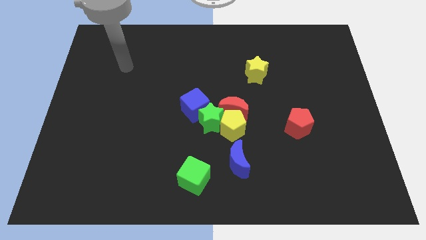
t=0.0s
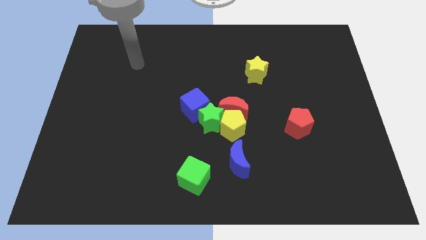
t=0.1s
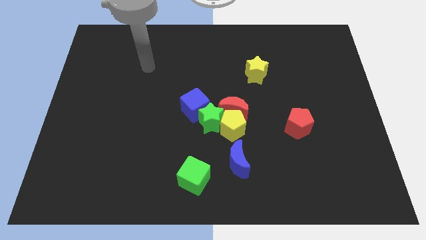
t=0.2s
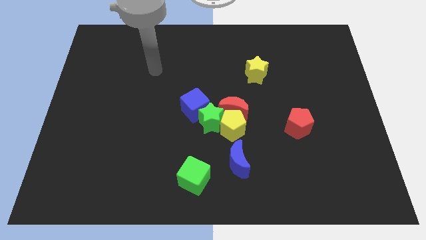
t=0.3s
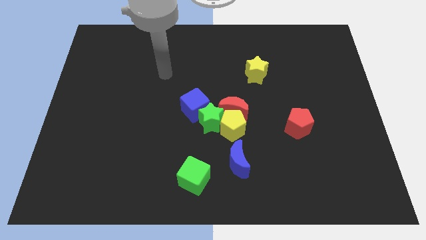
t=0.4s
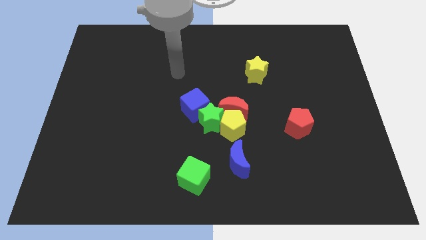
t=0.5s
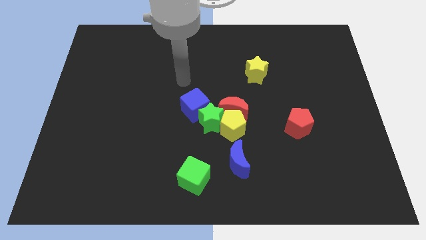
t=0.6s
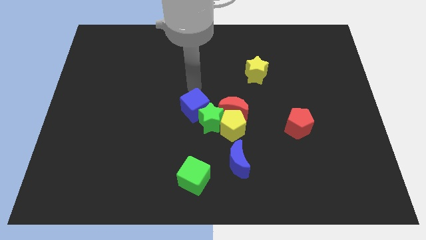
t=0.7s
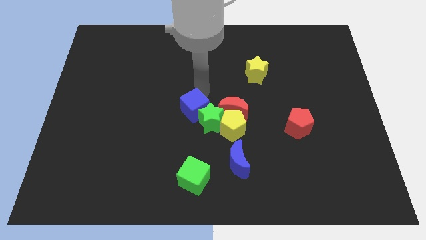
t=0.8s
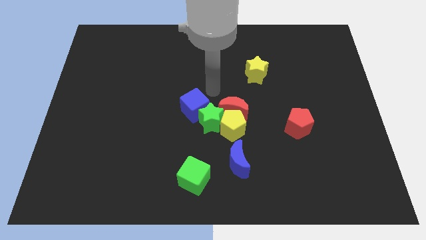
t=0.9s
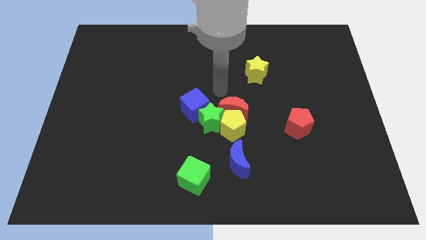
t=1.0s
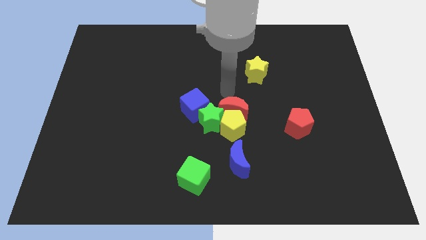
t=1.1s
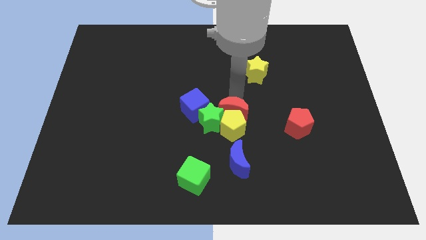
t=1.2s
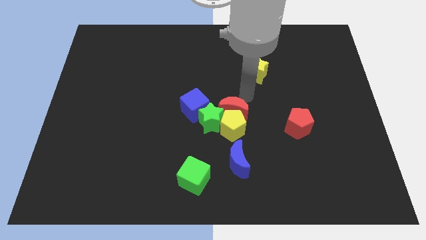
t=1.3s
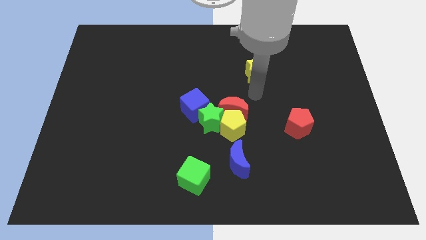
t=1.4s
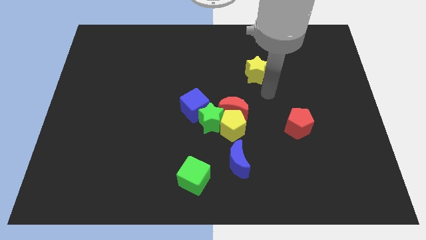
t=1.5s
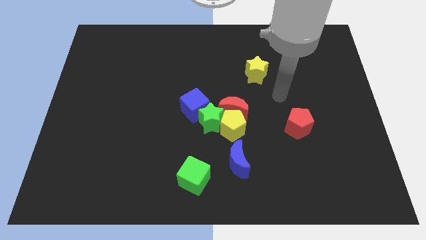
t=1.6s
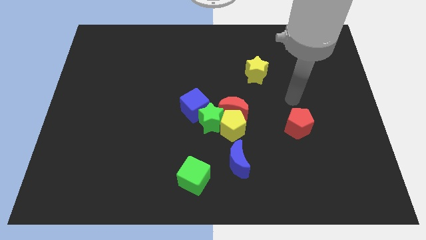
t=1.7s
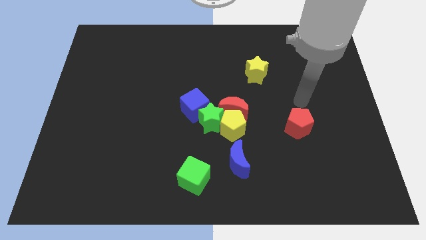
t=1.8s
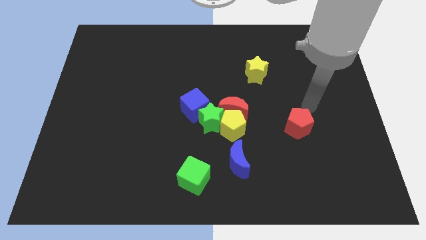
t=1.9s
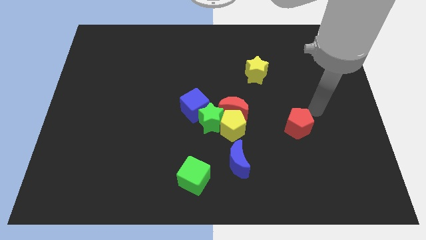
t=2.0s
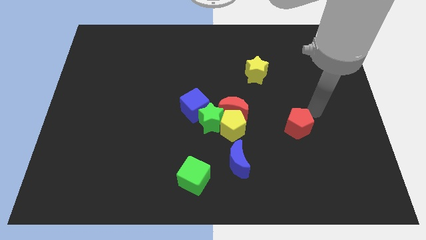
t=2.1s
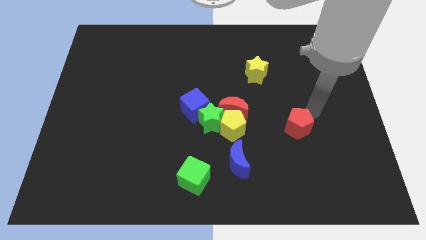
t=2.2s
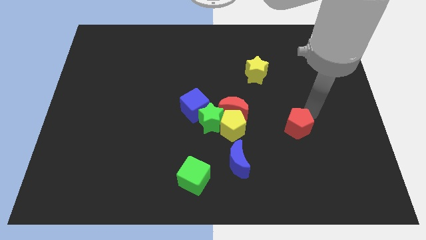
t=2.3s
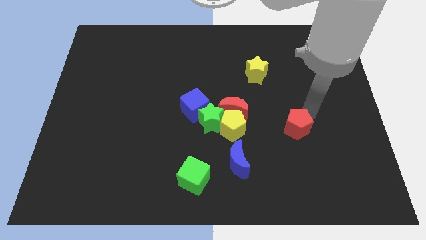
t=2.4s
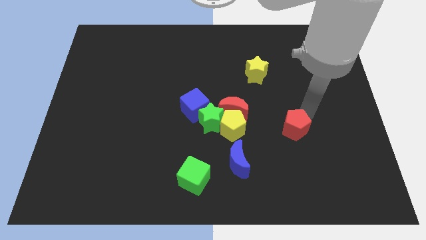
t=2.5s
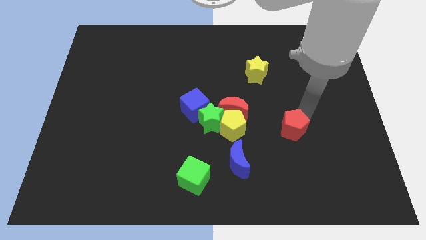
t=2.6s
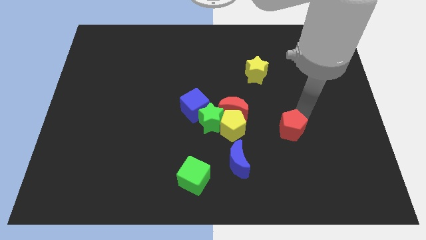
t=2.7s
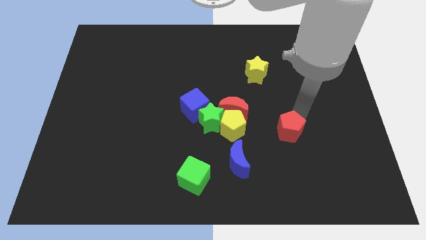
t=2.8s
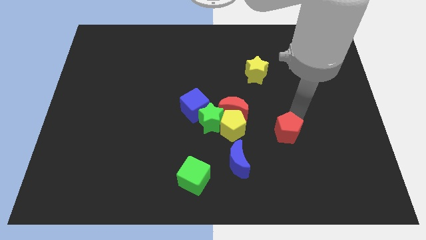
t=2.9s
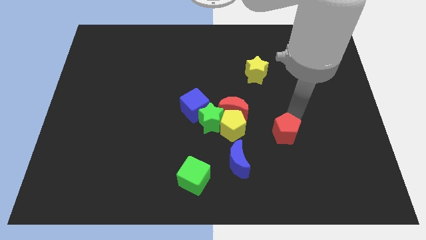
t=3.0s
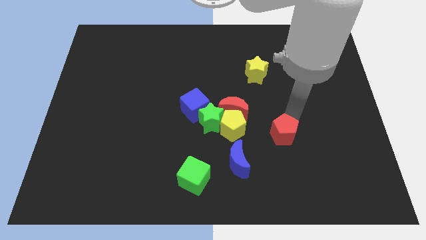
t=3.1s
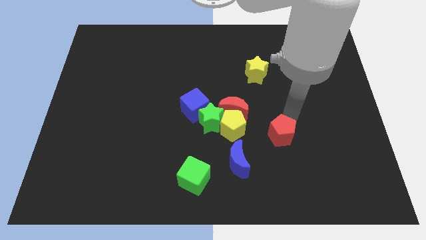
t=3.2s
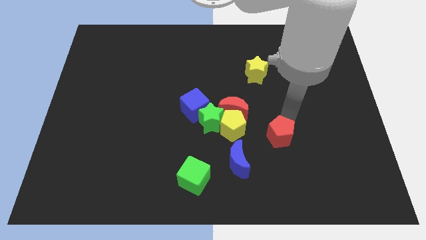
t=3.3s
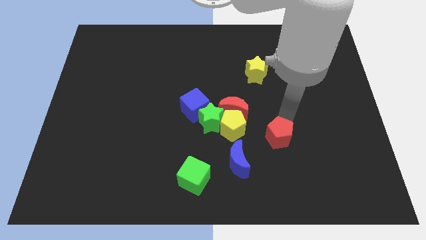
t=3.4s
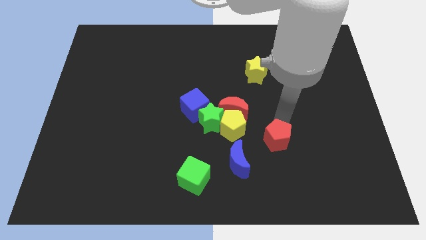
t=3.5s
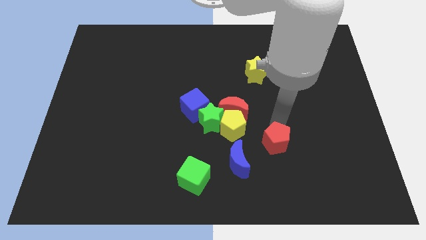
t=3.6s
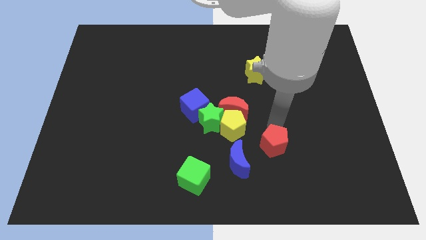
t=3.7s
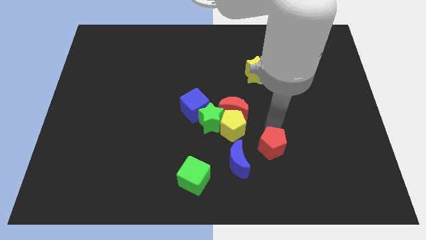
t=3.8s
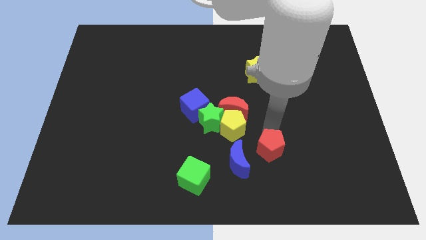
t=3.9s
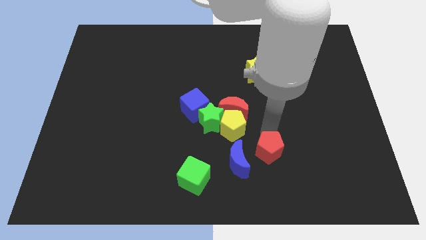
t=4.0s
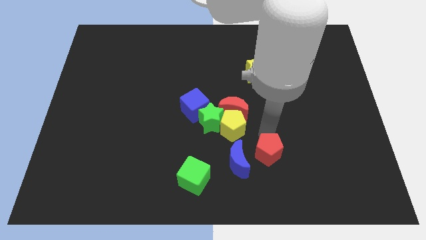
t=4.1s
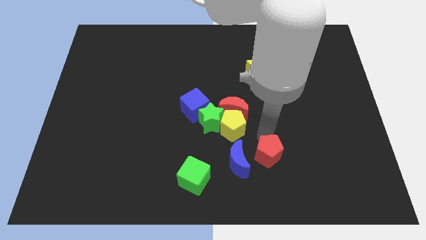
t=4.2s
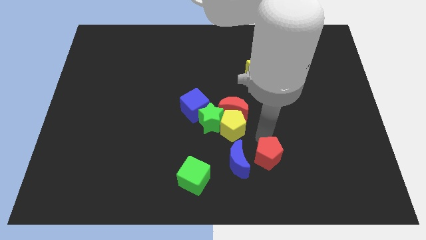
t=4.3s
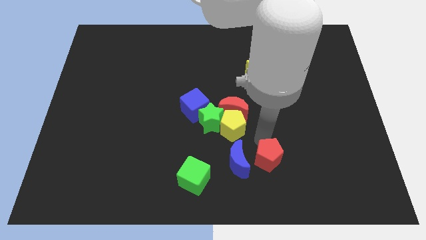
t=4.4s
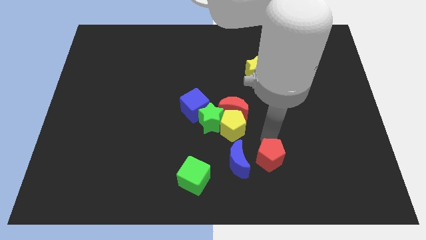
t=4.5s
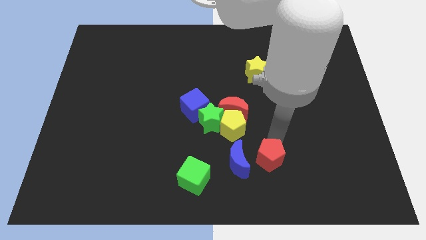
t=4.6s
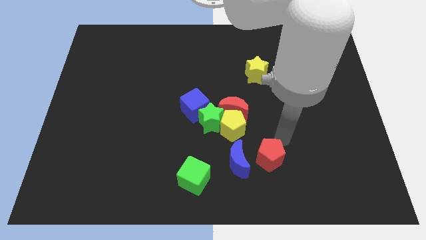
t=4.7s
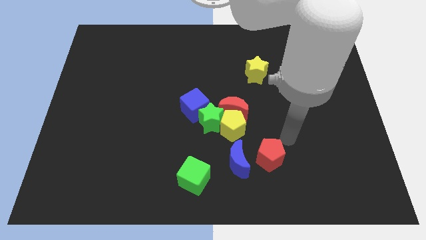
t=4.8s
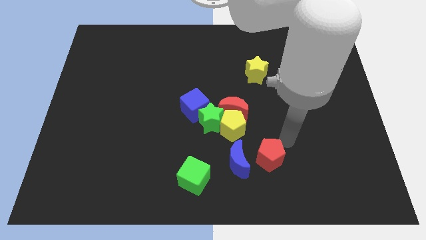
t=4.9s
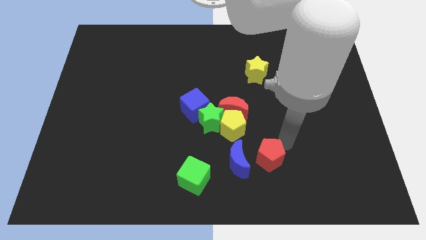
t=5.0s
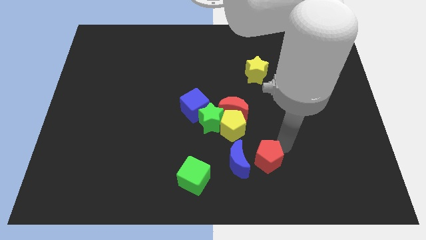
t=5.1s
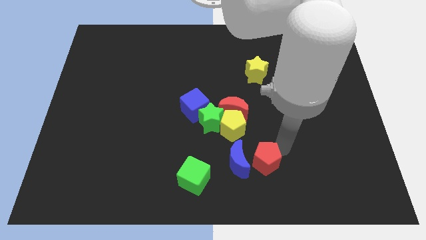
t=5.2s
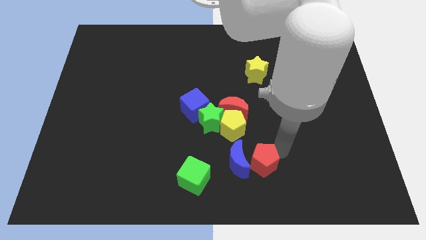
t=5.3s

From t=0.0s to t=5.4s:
move the red pentagon to the right side of the green cube

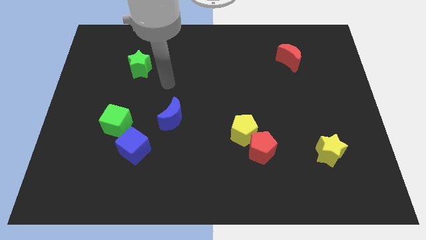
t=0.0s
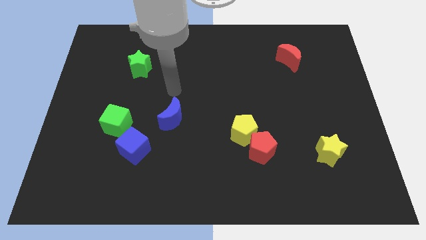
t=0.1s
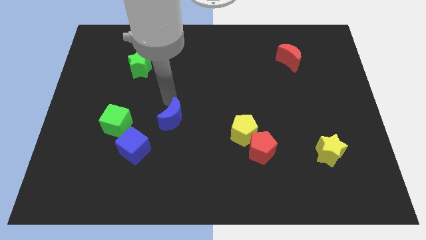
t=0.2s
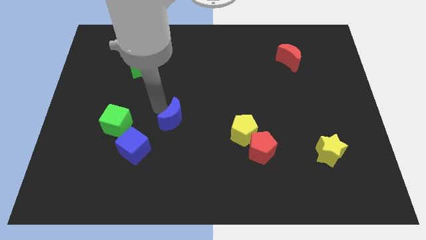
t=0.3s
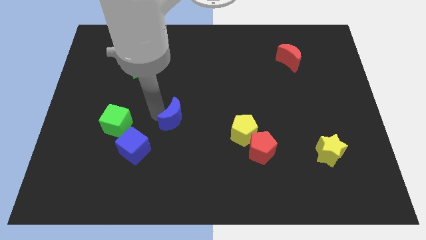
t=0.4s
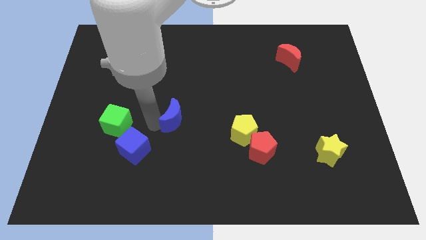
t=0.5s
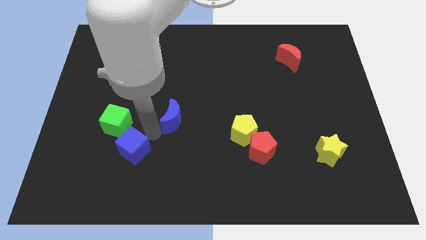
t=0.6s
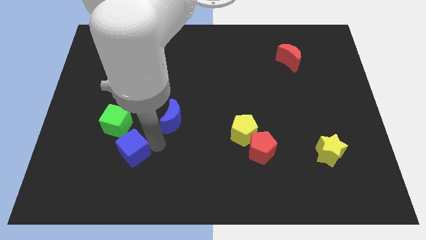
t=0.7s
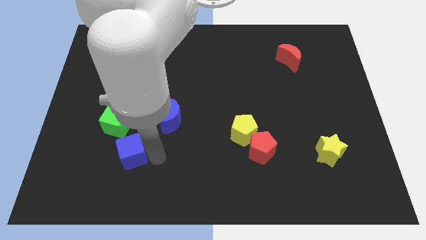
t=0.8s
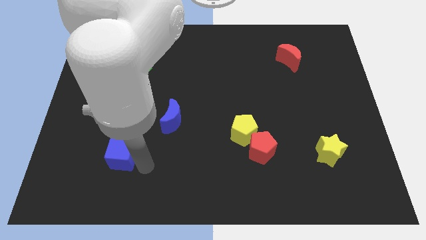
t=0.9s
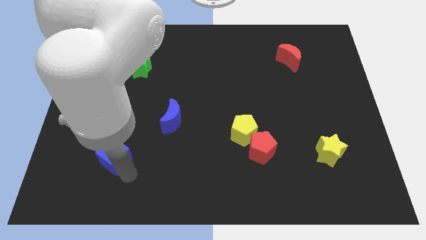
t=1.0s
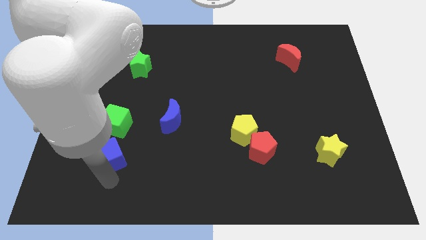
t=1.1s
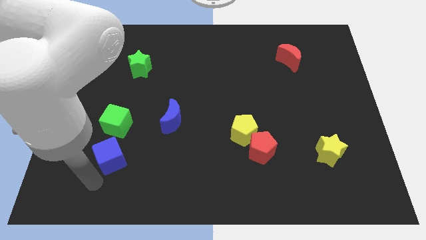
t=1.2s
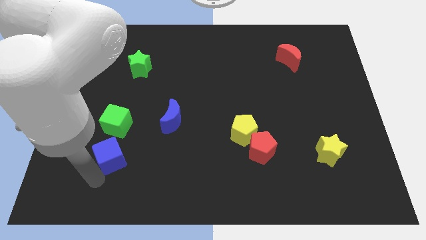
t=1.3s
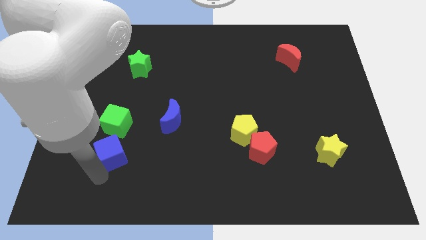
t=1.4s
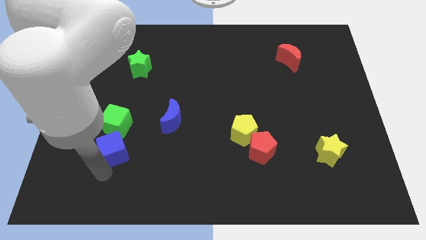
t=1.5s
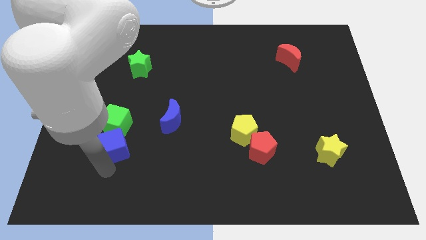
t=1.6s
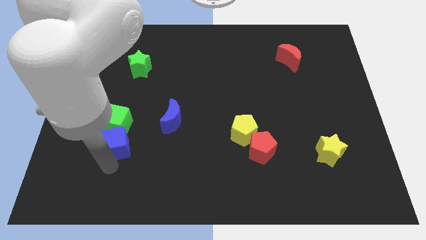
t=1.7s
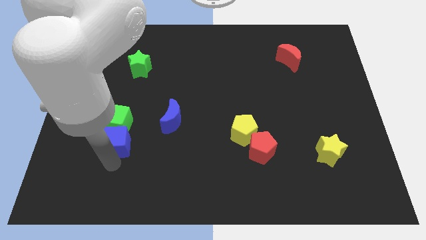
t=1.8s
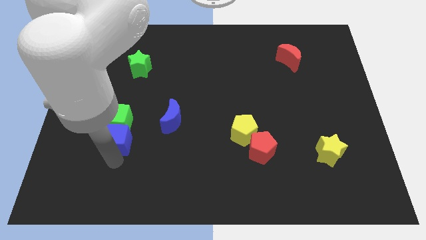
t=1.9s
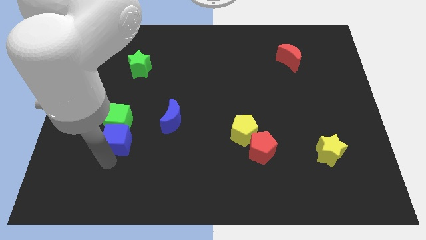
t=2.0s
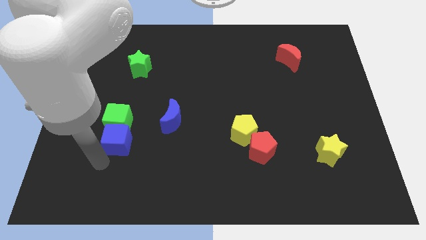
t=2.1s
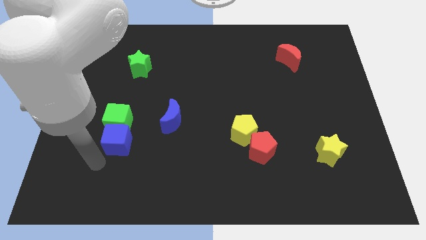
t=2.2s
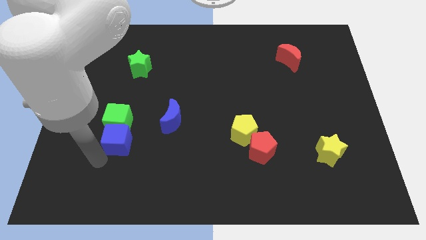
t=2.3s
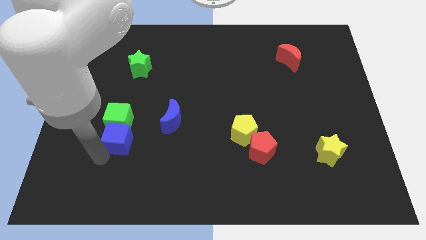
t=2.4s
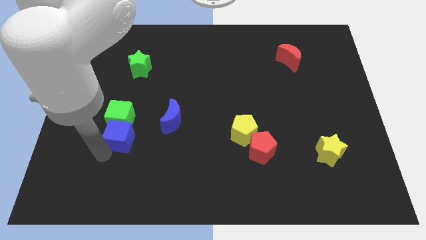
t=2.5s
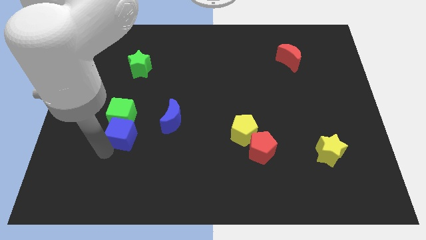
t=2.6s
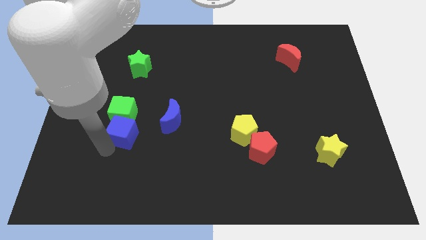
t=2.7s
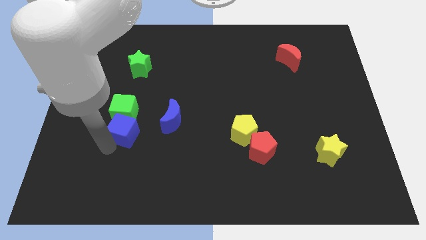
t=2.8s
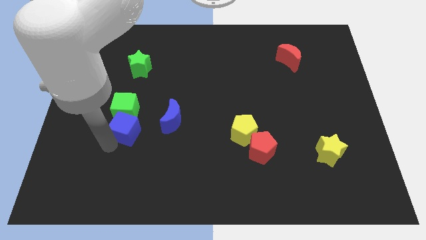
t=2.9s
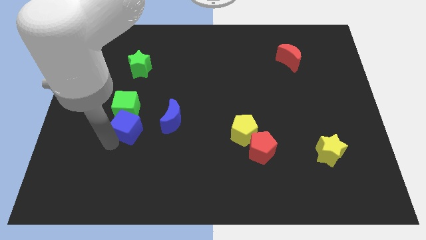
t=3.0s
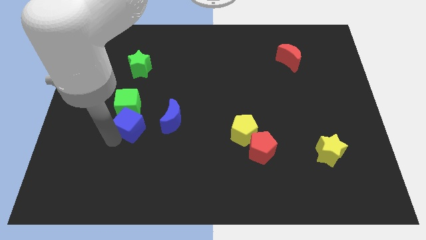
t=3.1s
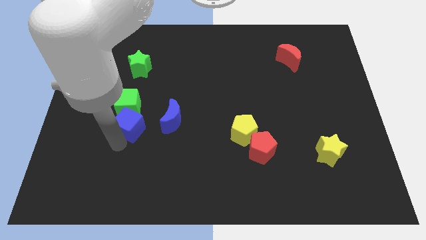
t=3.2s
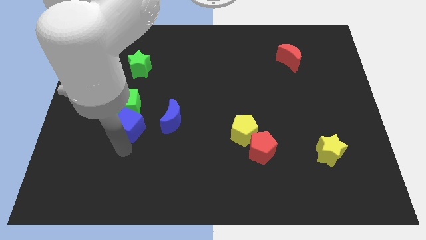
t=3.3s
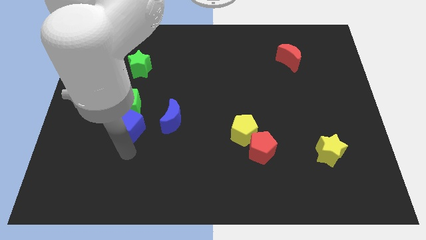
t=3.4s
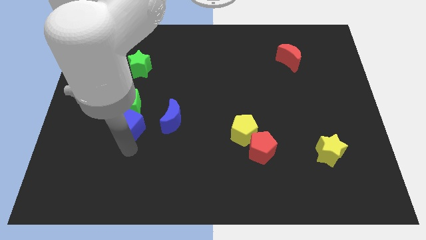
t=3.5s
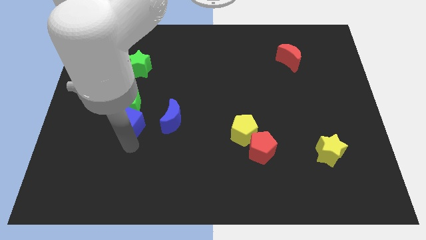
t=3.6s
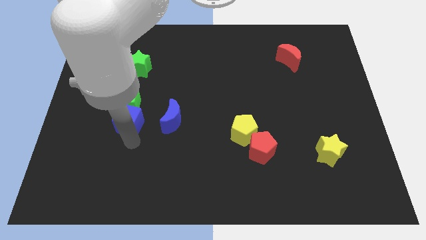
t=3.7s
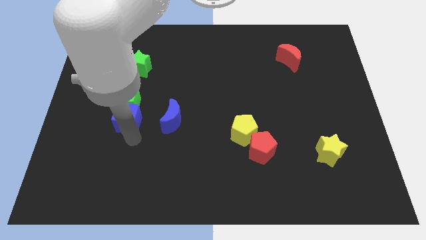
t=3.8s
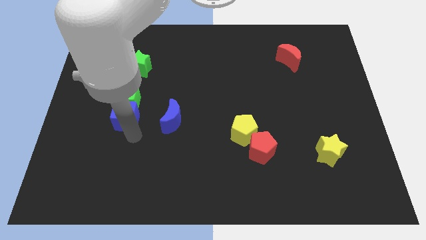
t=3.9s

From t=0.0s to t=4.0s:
push the blue cube to the bottom of the green star
